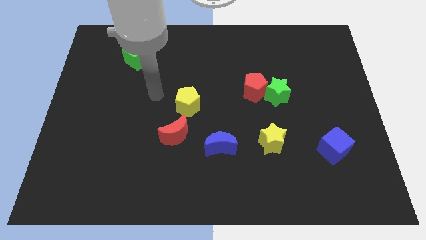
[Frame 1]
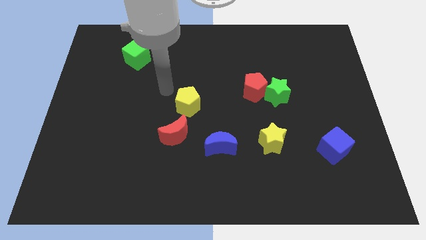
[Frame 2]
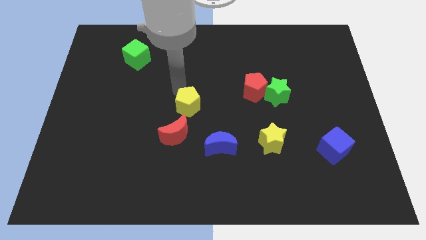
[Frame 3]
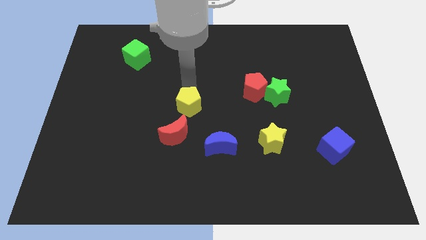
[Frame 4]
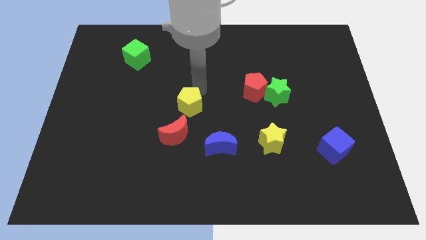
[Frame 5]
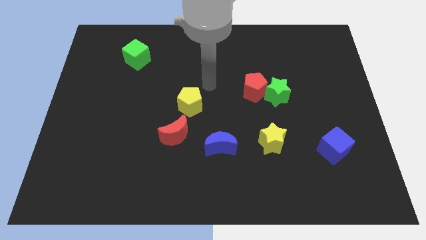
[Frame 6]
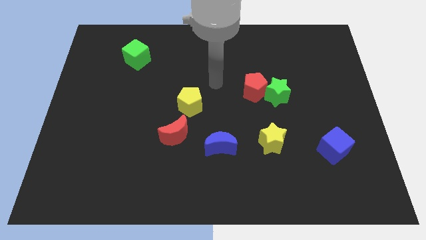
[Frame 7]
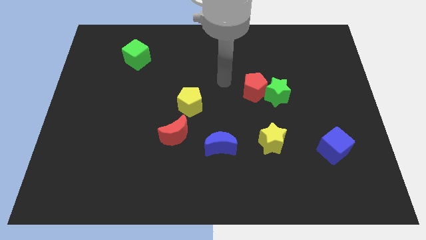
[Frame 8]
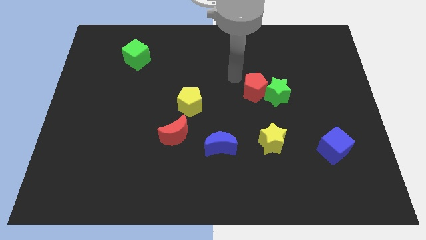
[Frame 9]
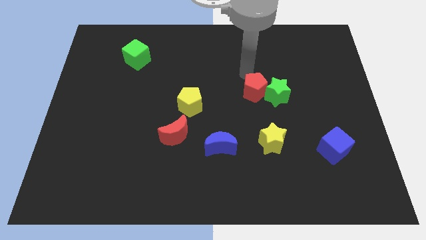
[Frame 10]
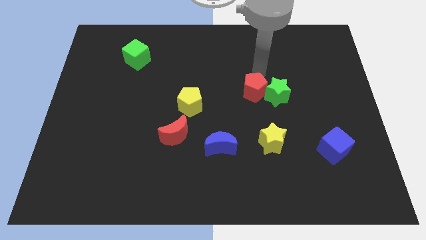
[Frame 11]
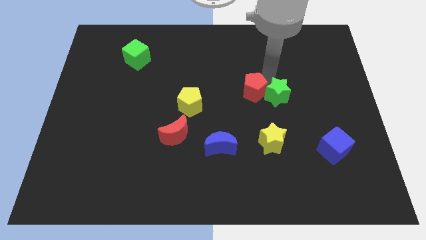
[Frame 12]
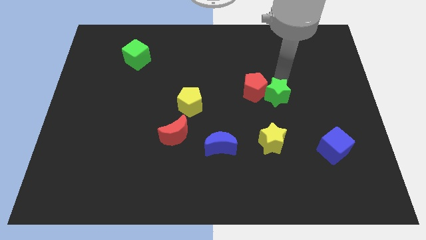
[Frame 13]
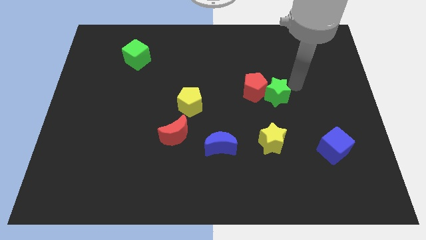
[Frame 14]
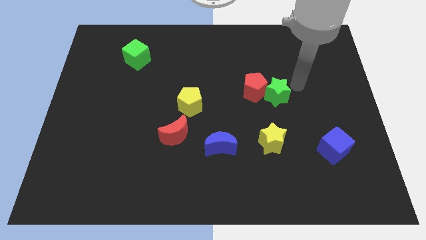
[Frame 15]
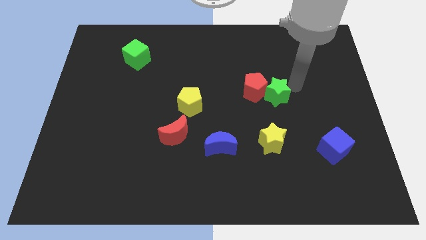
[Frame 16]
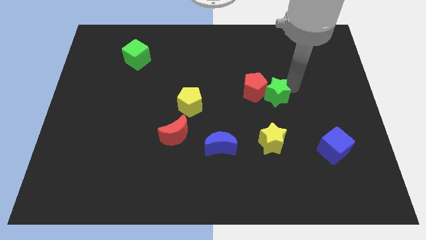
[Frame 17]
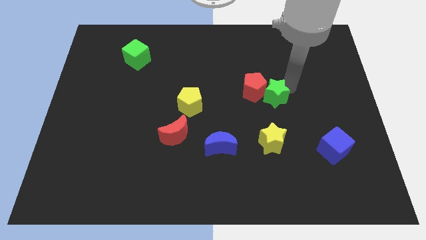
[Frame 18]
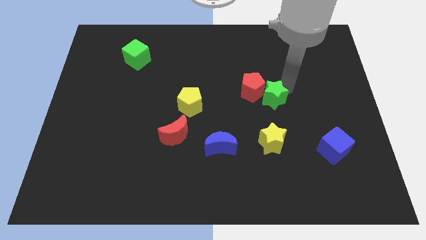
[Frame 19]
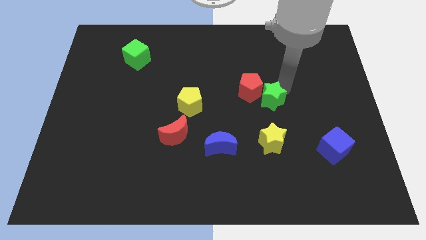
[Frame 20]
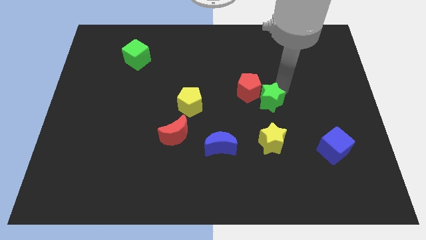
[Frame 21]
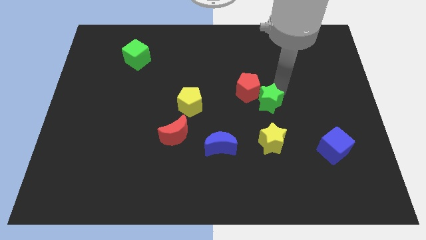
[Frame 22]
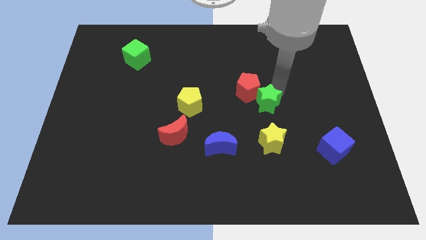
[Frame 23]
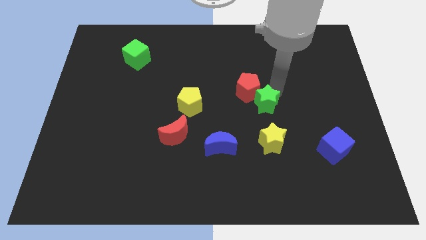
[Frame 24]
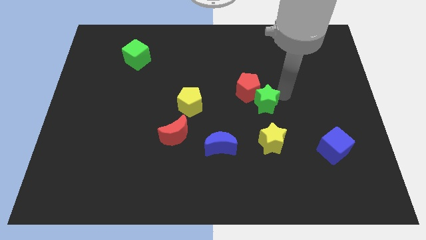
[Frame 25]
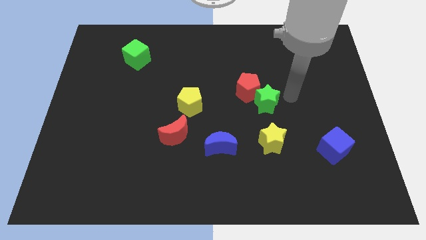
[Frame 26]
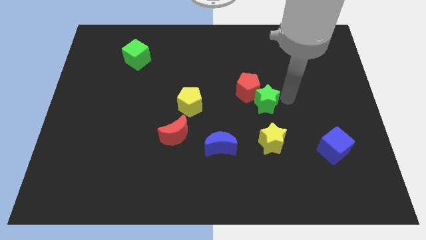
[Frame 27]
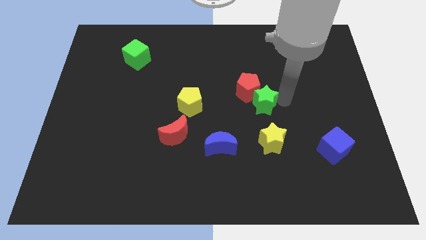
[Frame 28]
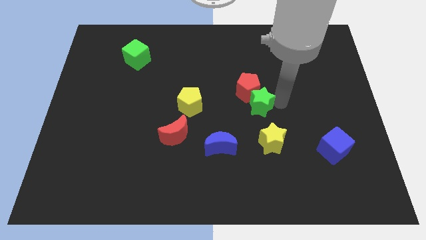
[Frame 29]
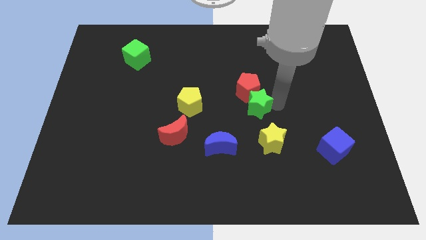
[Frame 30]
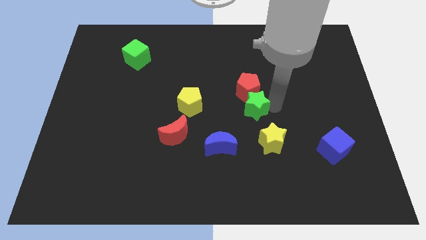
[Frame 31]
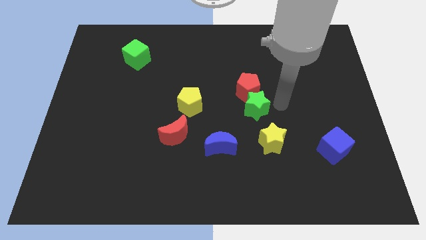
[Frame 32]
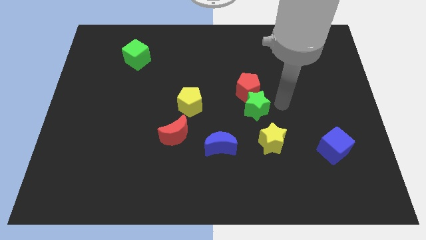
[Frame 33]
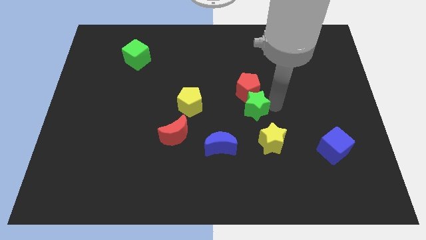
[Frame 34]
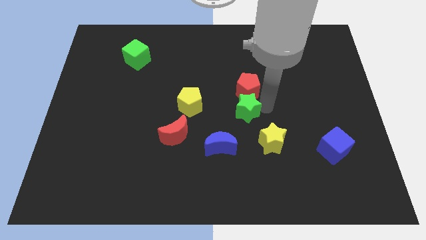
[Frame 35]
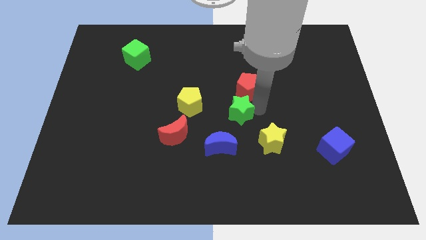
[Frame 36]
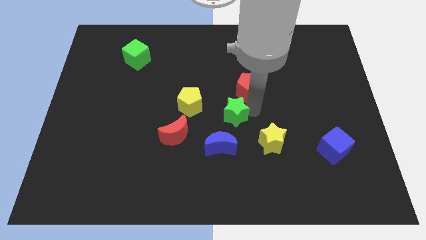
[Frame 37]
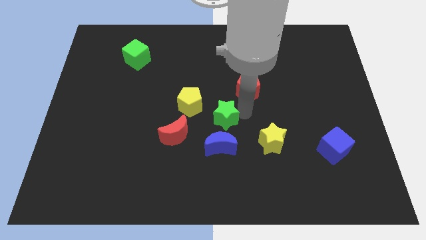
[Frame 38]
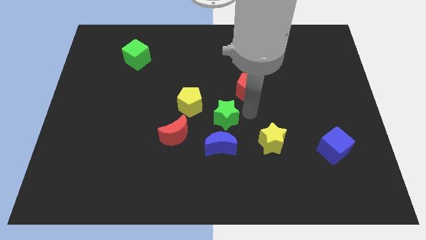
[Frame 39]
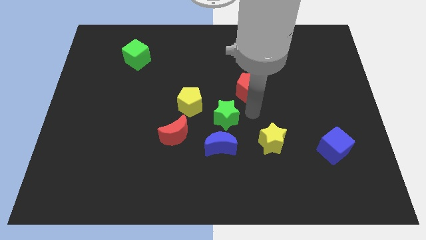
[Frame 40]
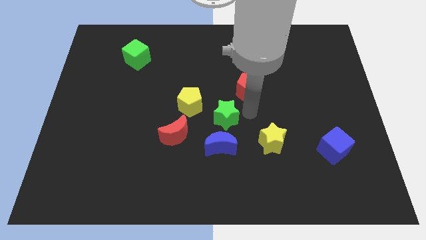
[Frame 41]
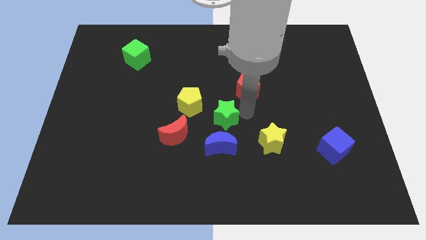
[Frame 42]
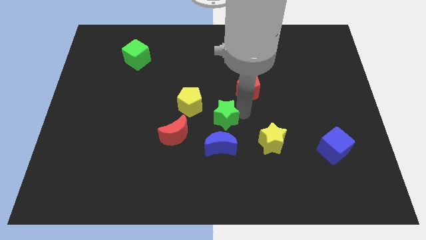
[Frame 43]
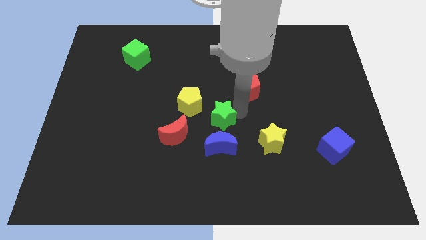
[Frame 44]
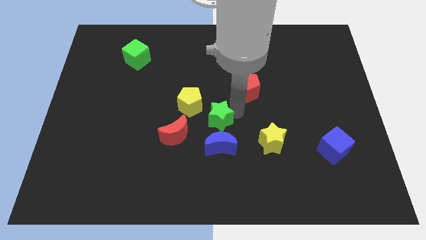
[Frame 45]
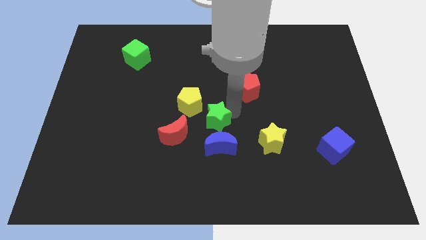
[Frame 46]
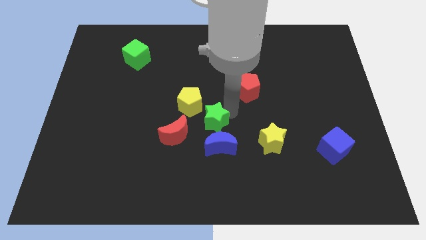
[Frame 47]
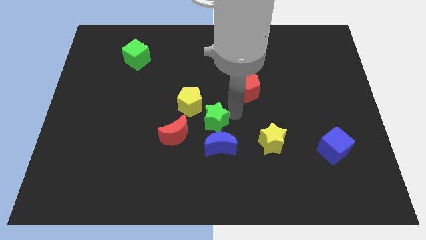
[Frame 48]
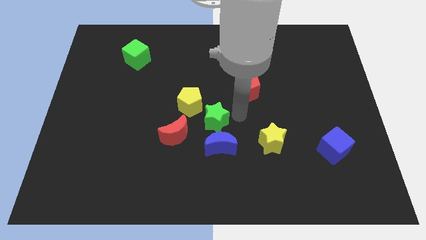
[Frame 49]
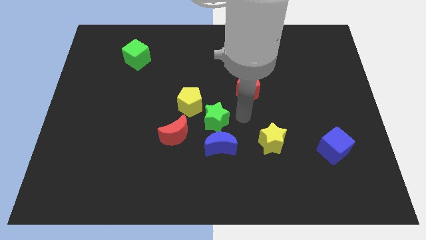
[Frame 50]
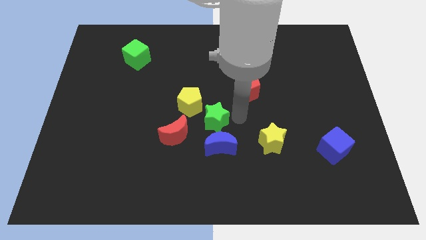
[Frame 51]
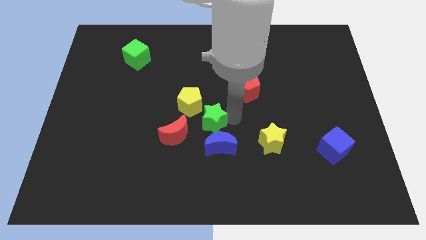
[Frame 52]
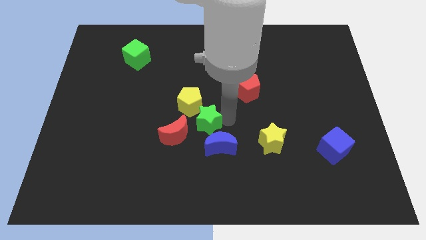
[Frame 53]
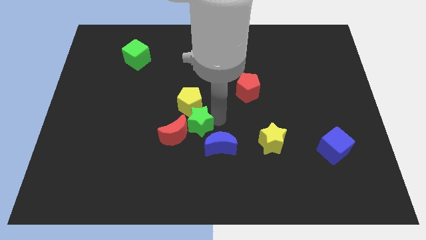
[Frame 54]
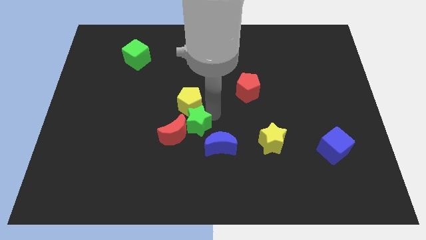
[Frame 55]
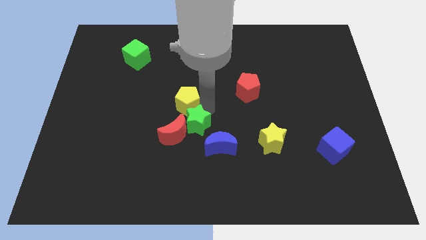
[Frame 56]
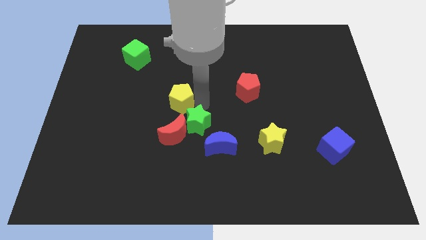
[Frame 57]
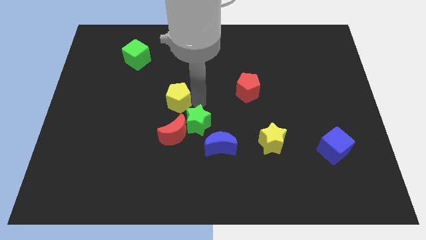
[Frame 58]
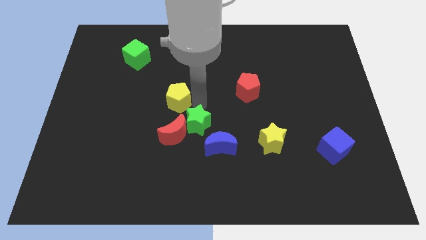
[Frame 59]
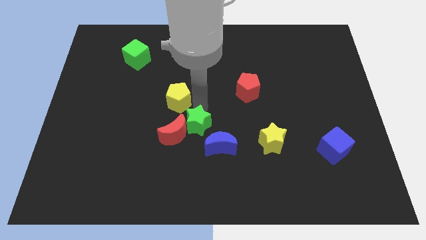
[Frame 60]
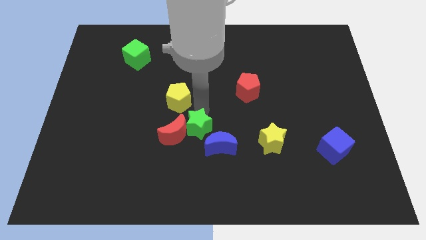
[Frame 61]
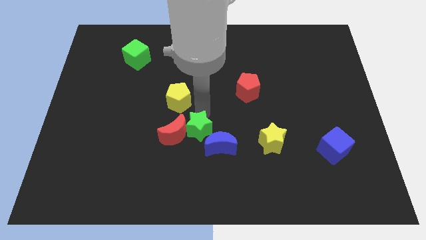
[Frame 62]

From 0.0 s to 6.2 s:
push the green star to the bottom right of the red moon

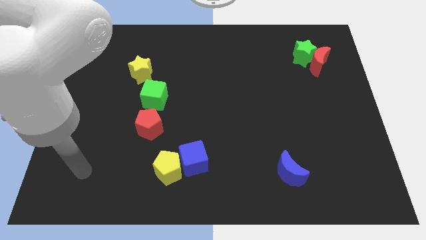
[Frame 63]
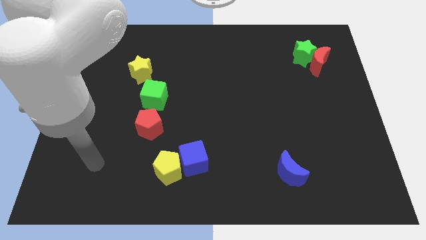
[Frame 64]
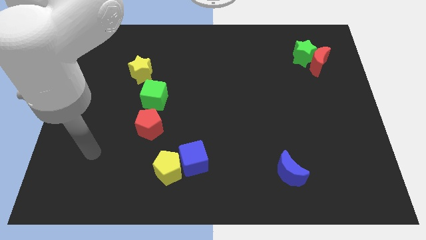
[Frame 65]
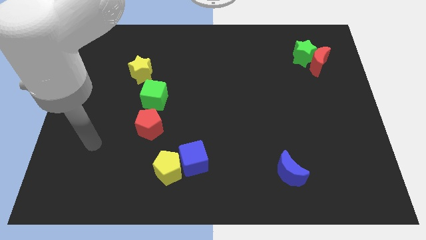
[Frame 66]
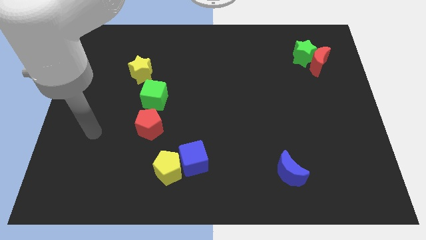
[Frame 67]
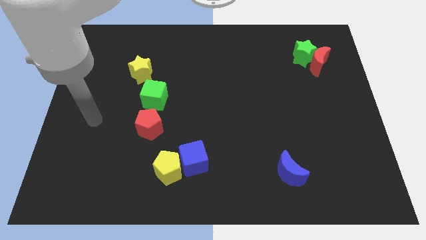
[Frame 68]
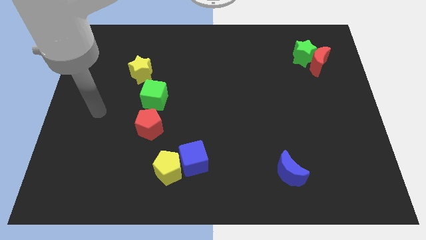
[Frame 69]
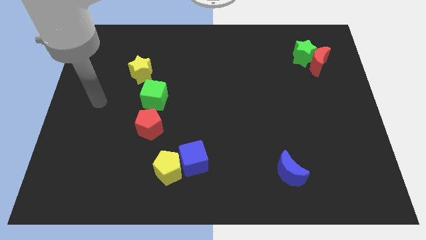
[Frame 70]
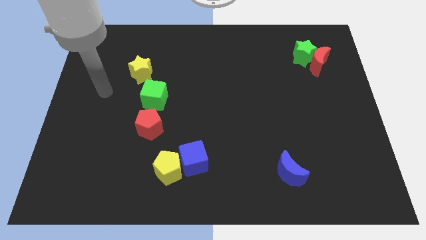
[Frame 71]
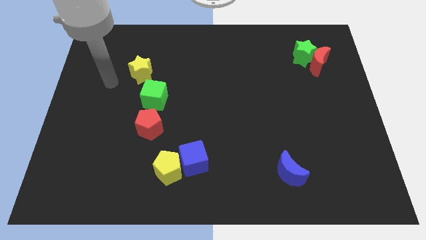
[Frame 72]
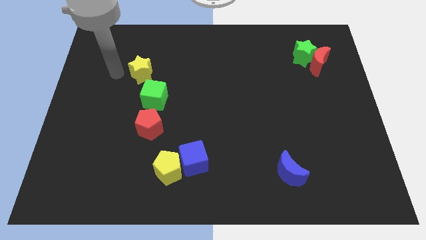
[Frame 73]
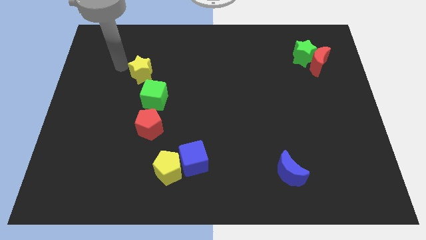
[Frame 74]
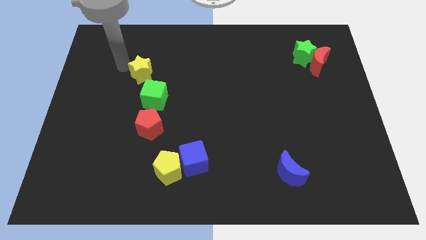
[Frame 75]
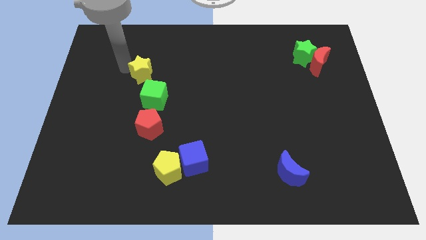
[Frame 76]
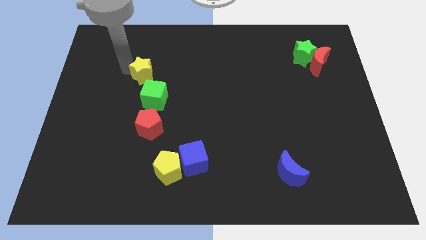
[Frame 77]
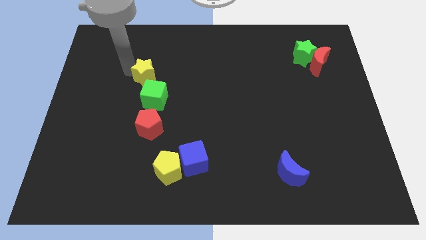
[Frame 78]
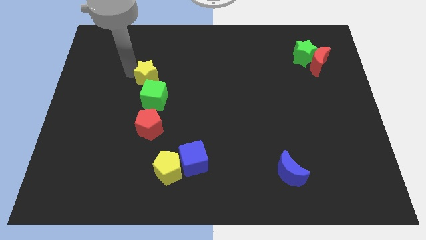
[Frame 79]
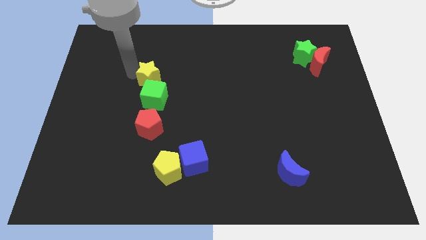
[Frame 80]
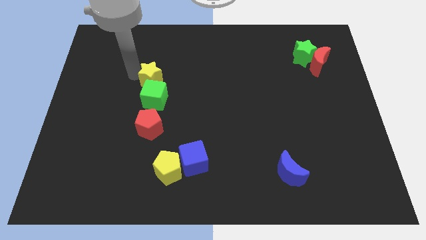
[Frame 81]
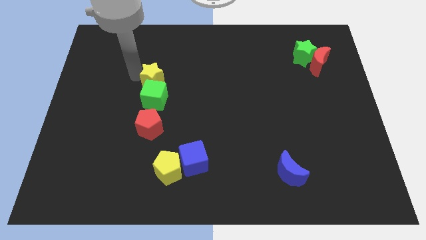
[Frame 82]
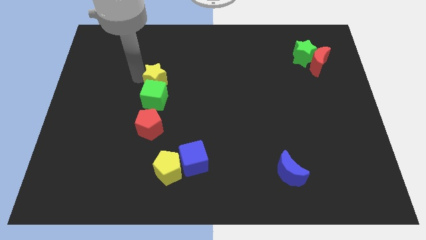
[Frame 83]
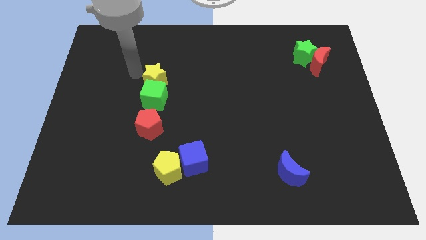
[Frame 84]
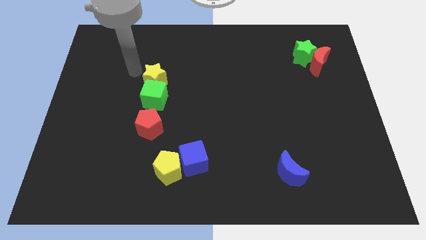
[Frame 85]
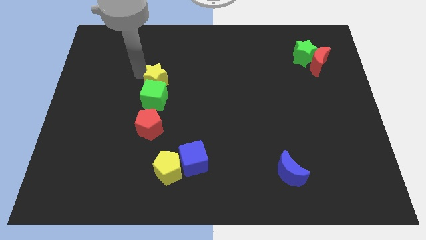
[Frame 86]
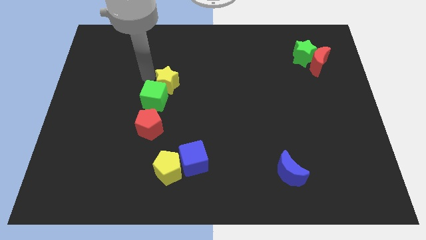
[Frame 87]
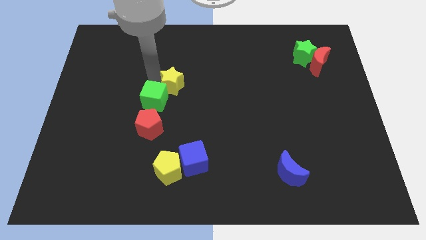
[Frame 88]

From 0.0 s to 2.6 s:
move the yellow star to the right of the green cube
